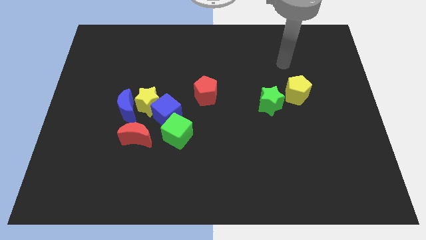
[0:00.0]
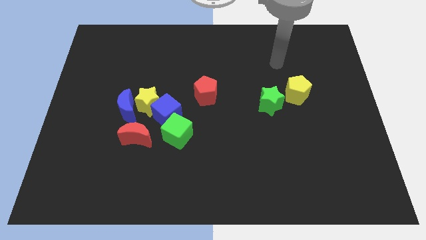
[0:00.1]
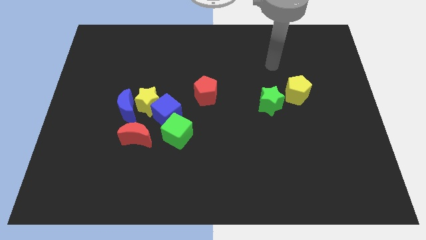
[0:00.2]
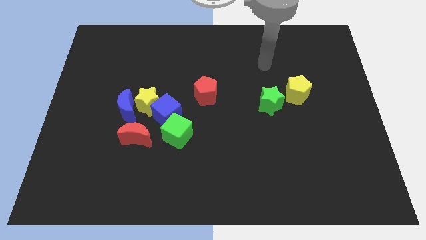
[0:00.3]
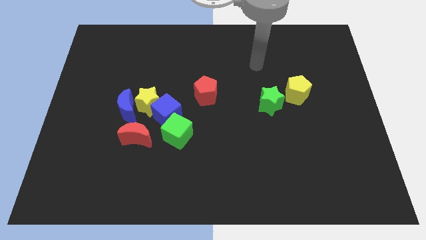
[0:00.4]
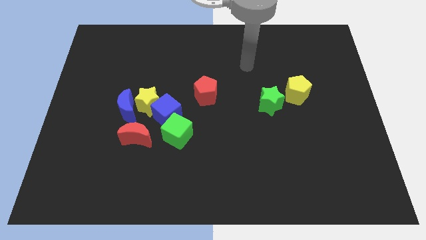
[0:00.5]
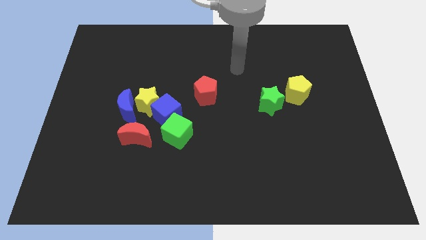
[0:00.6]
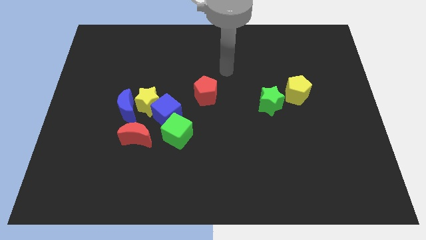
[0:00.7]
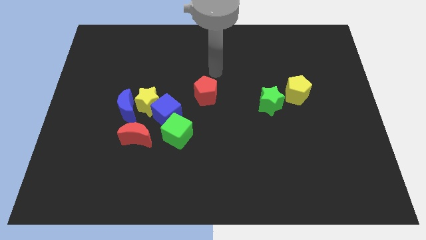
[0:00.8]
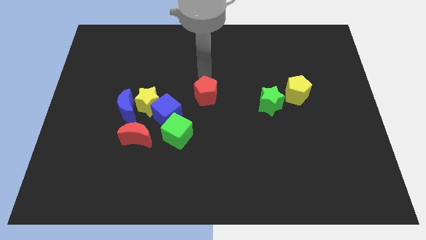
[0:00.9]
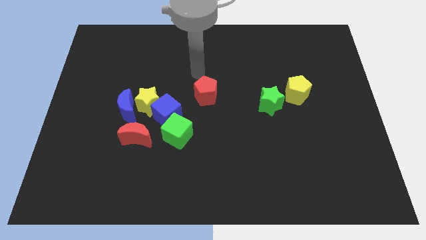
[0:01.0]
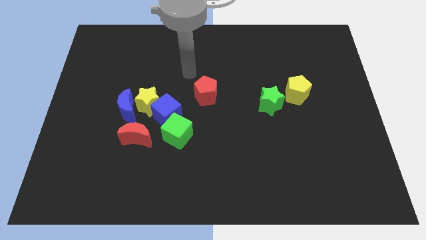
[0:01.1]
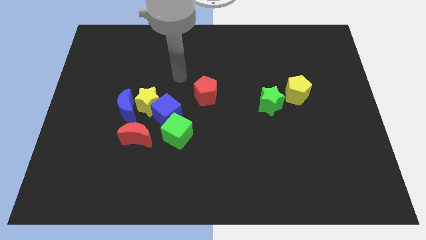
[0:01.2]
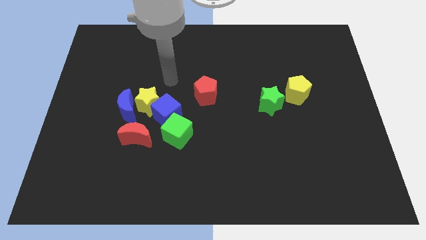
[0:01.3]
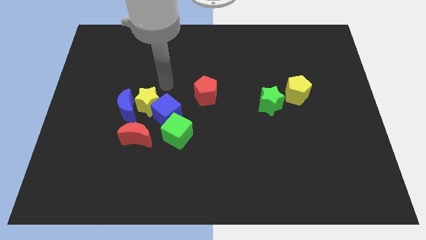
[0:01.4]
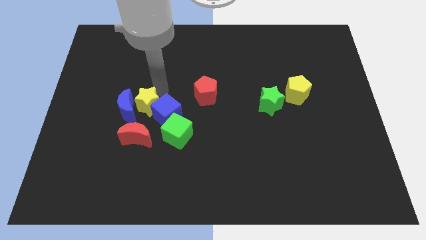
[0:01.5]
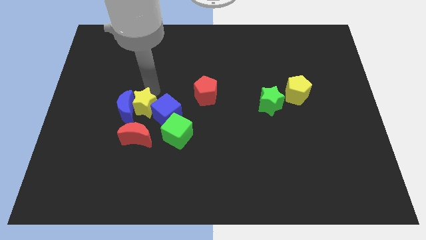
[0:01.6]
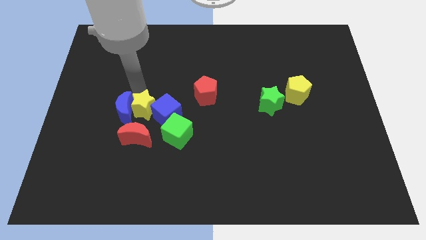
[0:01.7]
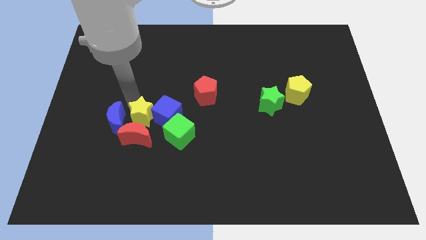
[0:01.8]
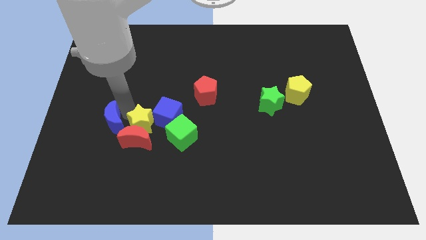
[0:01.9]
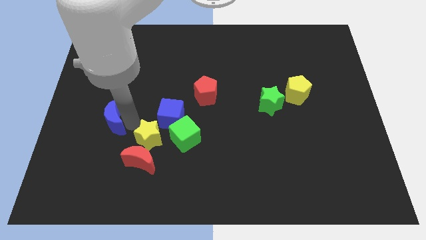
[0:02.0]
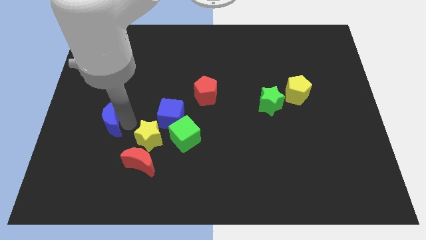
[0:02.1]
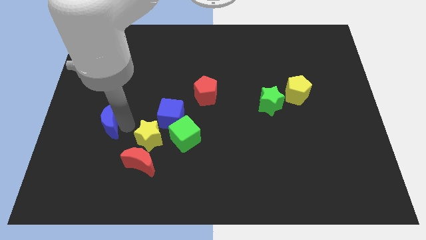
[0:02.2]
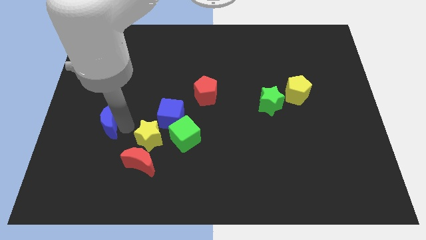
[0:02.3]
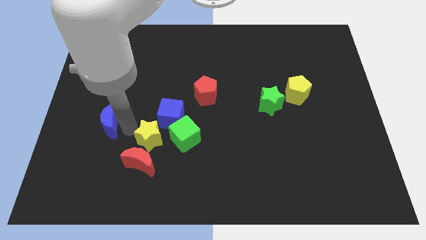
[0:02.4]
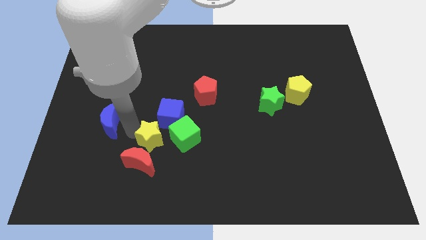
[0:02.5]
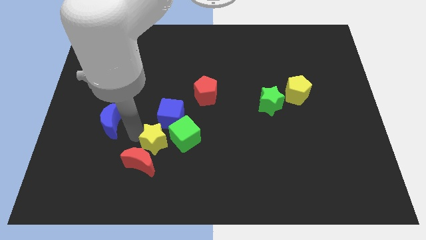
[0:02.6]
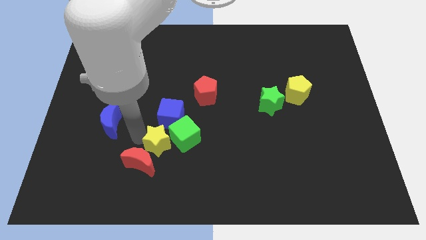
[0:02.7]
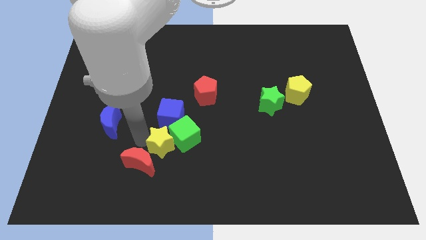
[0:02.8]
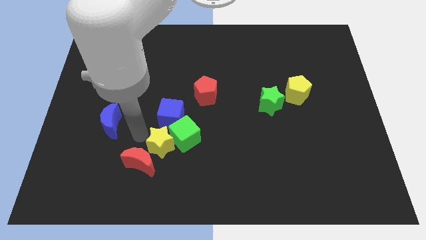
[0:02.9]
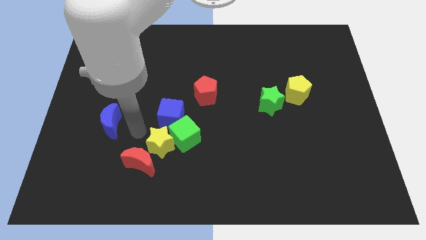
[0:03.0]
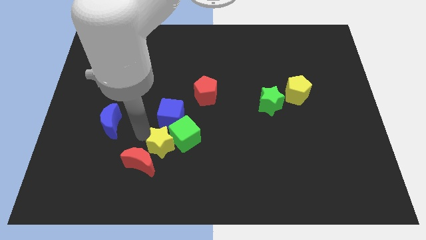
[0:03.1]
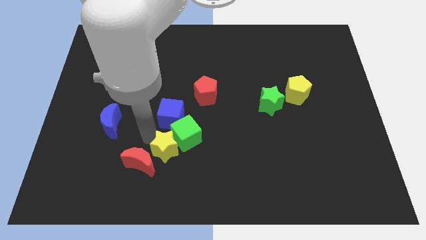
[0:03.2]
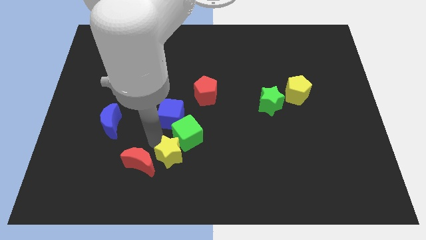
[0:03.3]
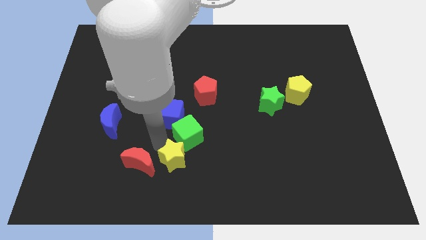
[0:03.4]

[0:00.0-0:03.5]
move the yellow star away from the blue cube, blue moon, and red moon

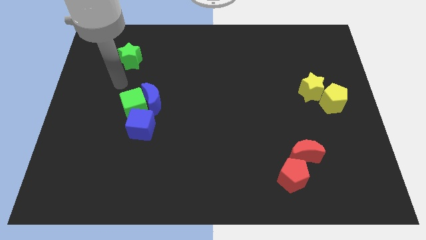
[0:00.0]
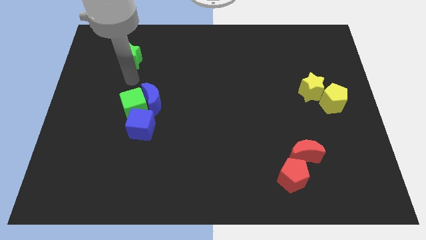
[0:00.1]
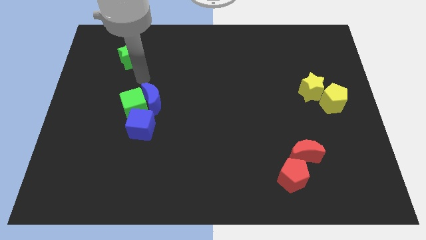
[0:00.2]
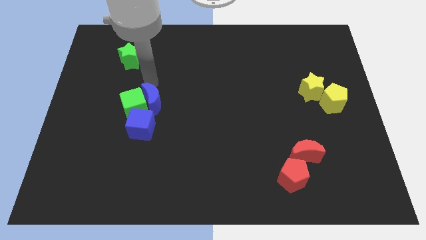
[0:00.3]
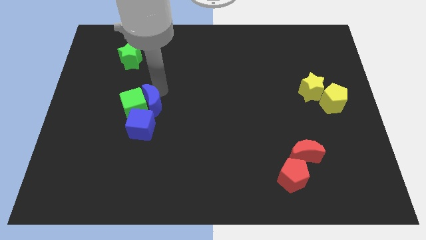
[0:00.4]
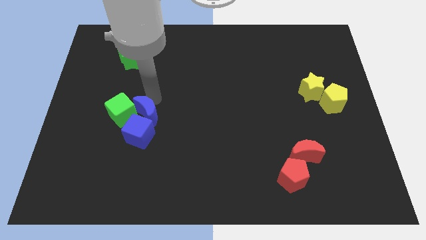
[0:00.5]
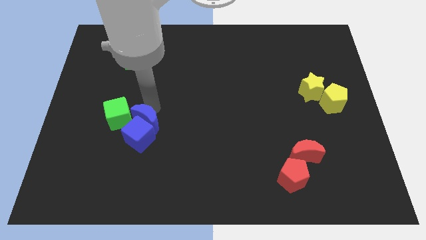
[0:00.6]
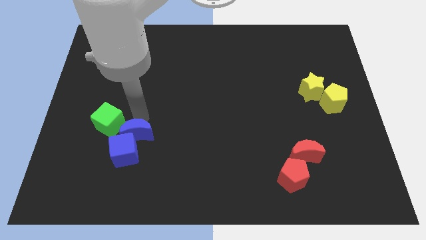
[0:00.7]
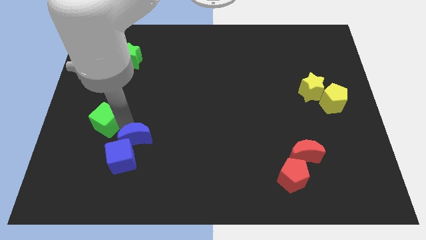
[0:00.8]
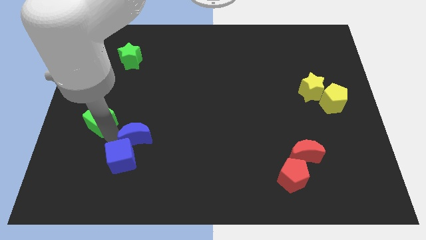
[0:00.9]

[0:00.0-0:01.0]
move the green cube away from the blue moon and blue cube

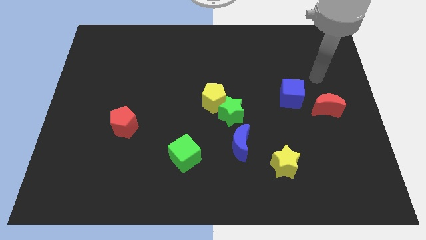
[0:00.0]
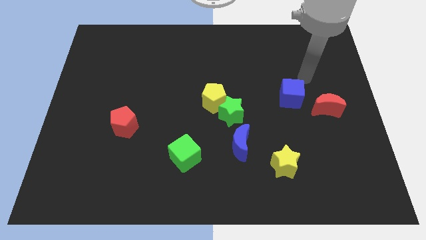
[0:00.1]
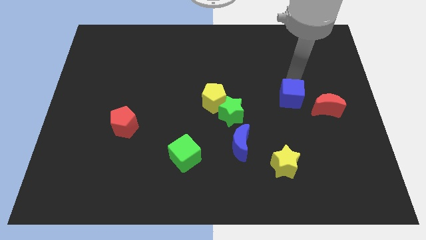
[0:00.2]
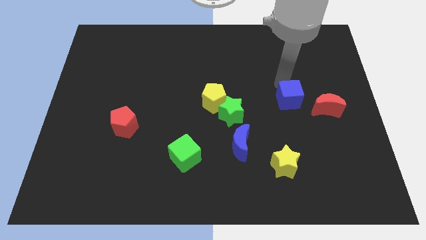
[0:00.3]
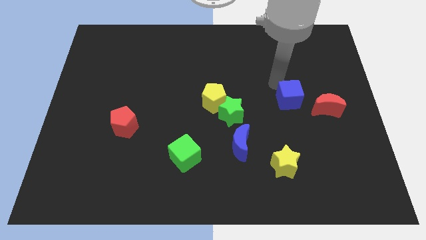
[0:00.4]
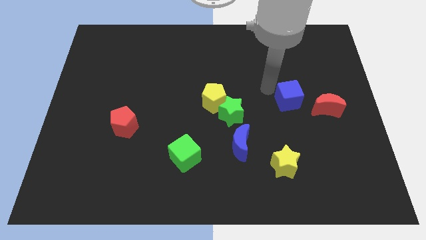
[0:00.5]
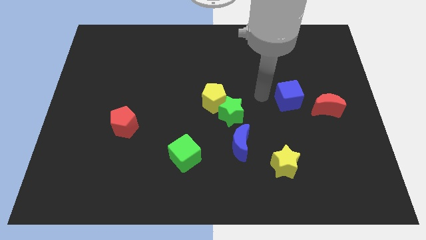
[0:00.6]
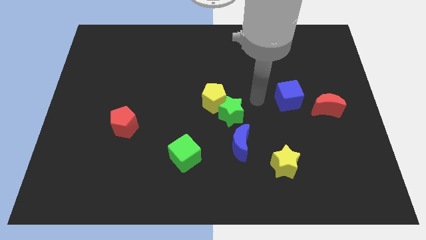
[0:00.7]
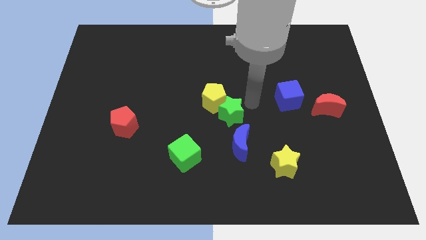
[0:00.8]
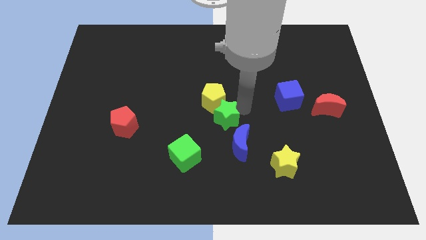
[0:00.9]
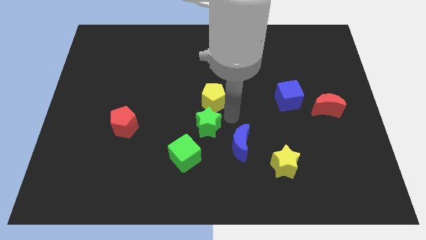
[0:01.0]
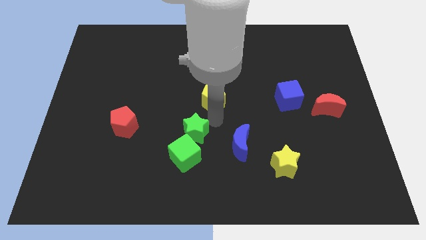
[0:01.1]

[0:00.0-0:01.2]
pull the yellow pentagon apart from the green star

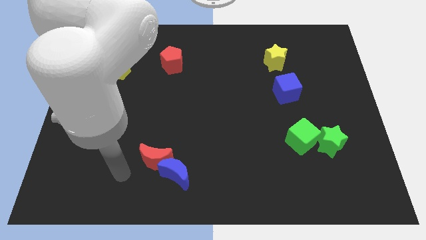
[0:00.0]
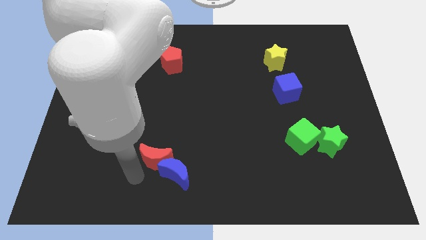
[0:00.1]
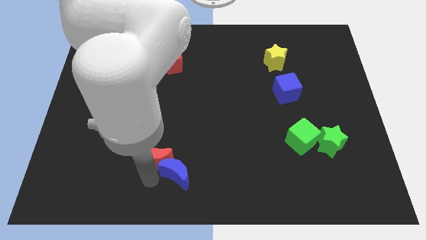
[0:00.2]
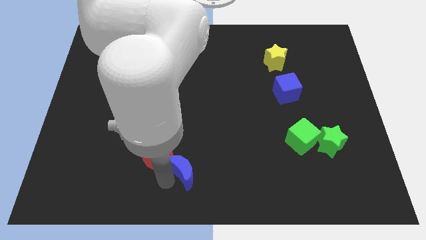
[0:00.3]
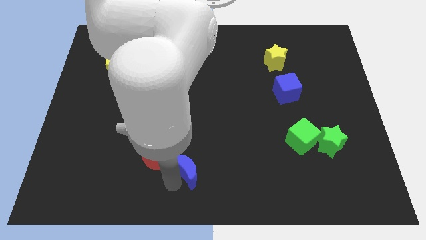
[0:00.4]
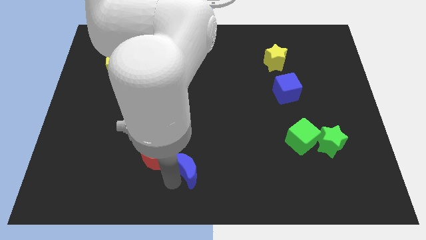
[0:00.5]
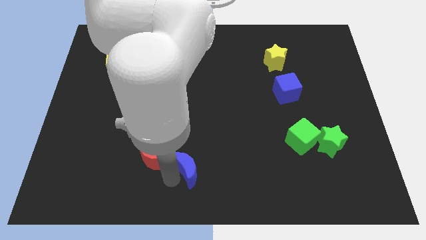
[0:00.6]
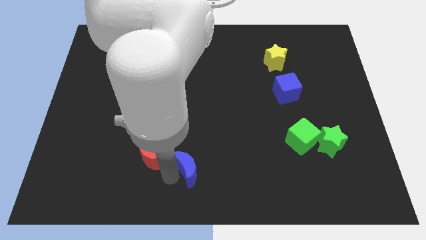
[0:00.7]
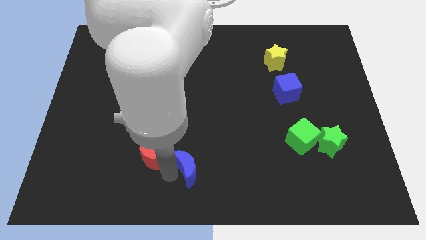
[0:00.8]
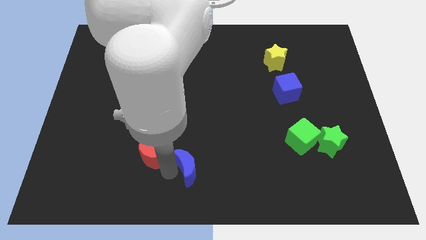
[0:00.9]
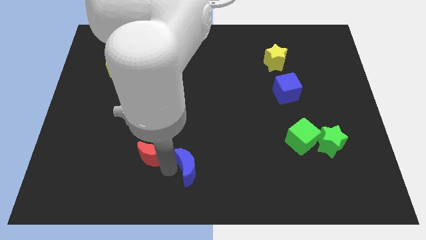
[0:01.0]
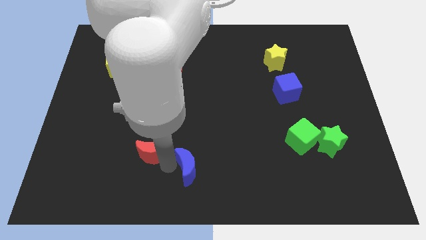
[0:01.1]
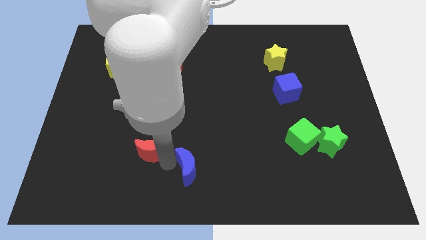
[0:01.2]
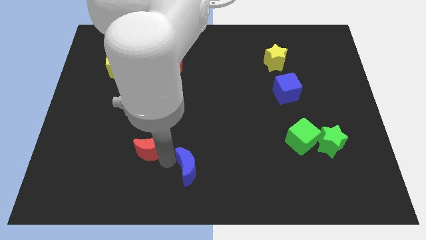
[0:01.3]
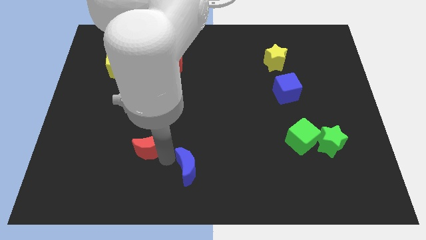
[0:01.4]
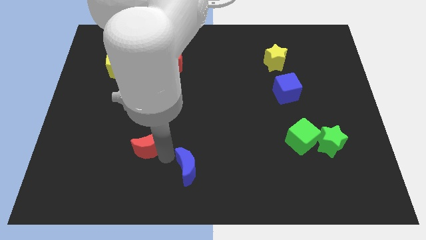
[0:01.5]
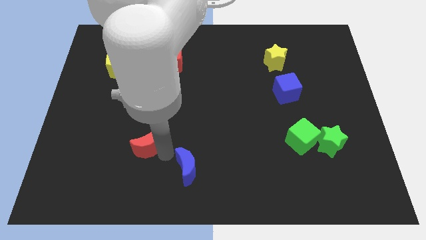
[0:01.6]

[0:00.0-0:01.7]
separate the red moon from the blue moon

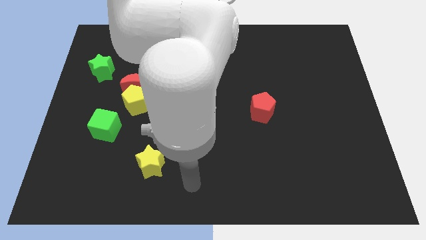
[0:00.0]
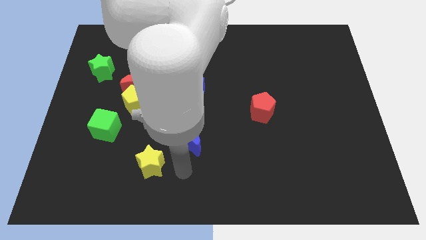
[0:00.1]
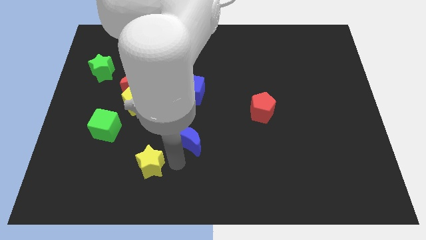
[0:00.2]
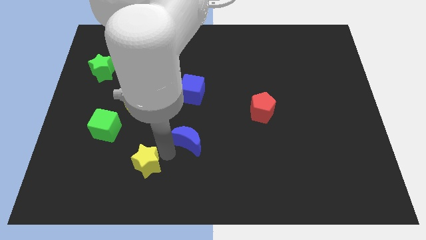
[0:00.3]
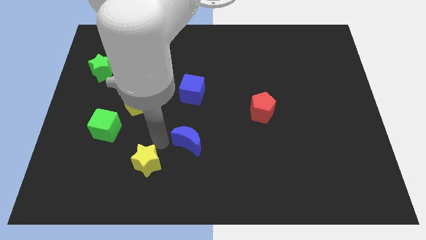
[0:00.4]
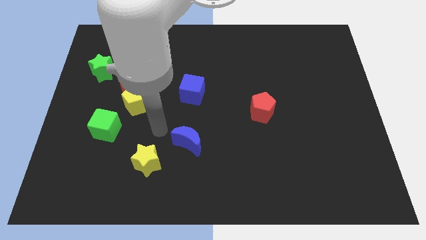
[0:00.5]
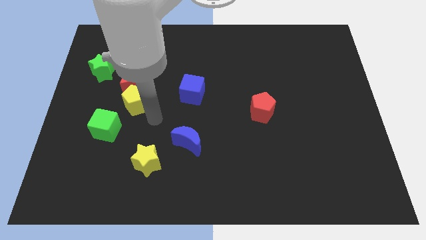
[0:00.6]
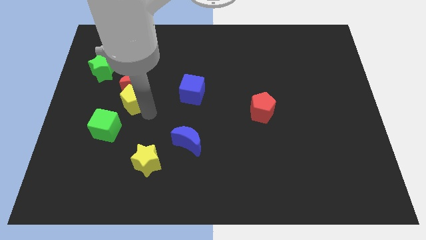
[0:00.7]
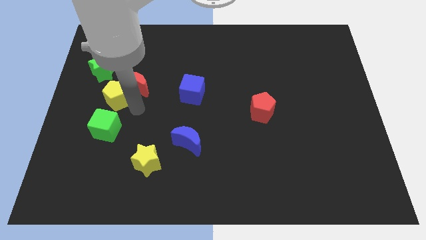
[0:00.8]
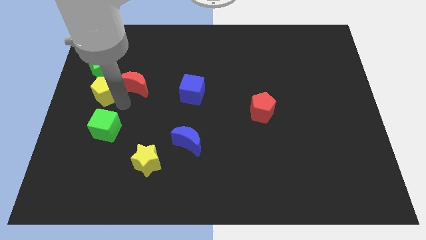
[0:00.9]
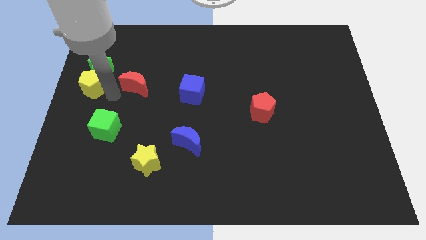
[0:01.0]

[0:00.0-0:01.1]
move the red moon away from the yellow pentagon

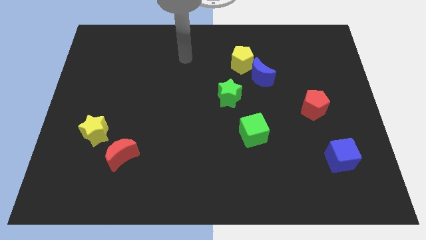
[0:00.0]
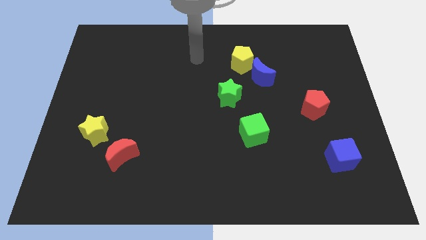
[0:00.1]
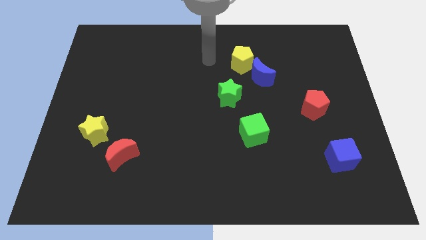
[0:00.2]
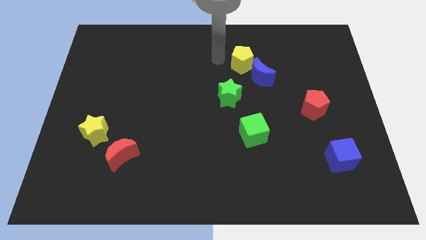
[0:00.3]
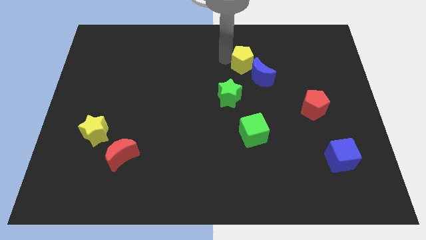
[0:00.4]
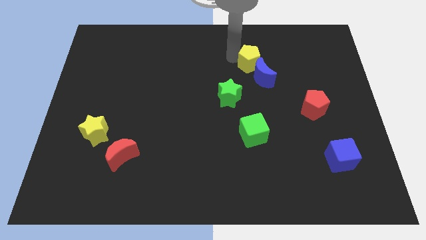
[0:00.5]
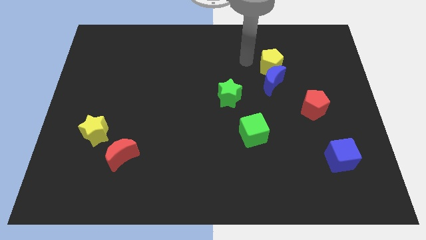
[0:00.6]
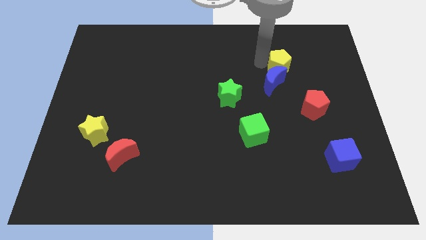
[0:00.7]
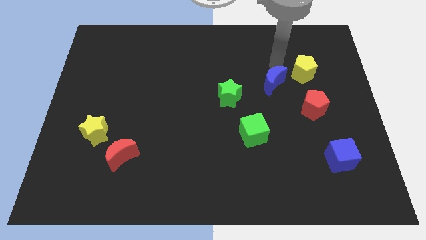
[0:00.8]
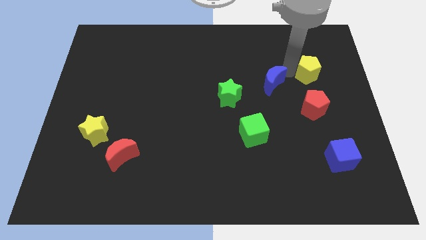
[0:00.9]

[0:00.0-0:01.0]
pull the blue moon apart from the yellow pentagon

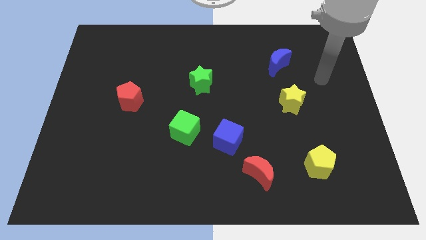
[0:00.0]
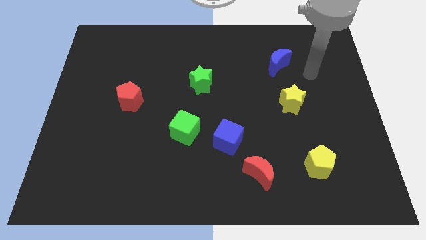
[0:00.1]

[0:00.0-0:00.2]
move the green cube away from the blue cube
